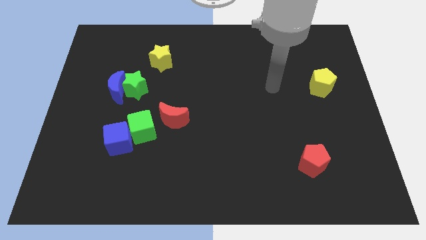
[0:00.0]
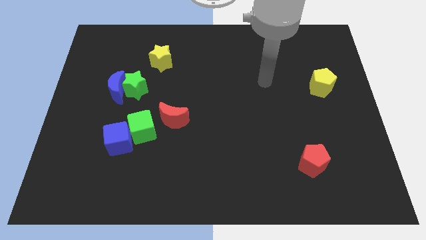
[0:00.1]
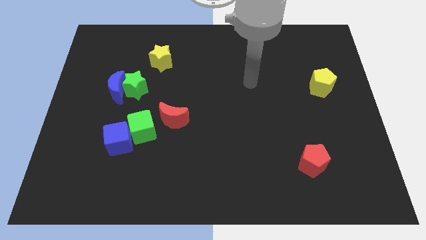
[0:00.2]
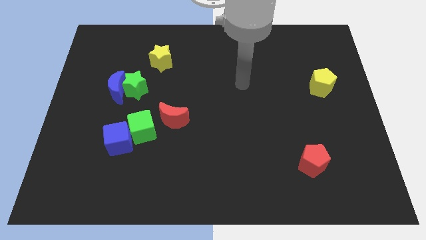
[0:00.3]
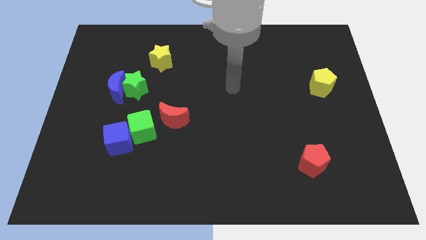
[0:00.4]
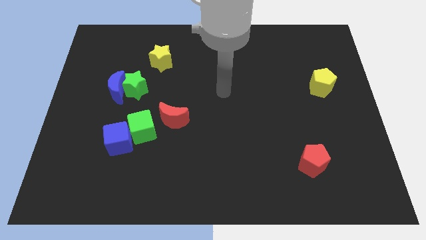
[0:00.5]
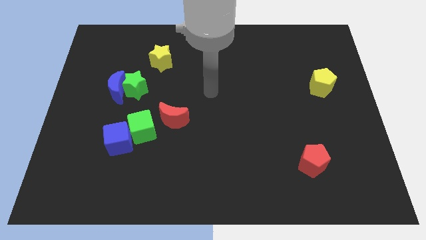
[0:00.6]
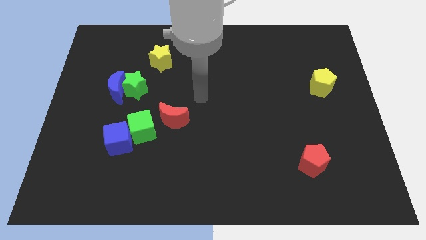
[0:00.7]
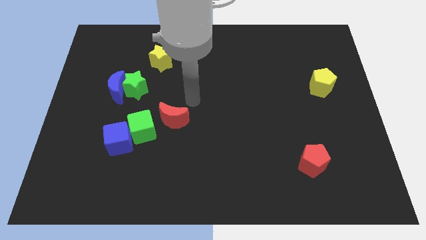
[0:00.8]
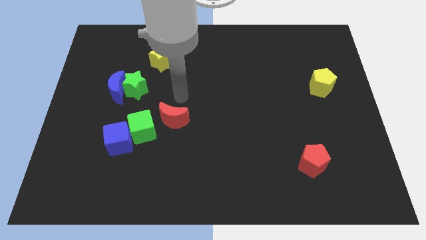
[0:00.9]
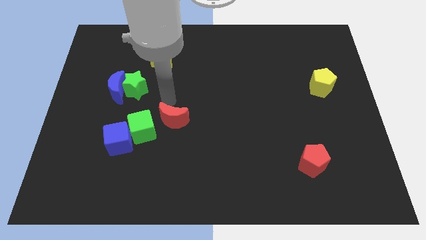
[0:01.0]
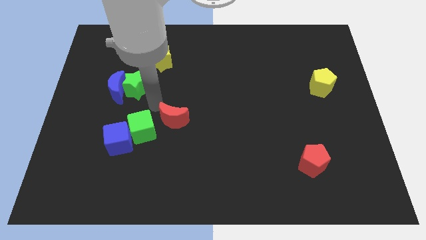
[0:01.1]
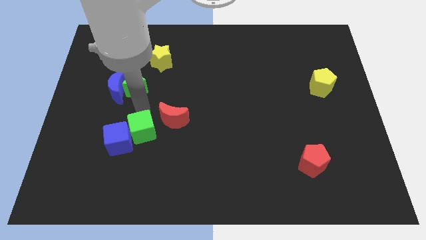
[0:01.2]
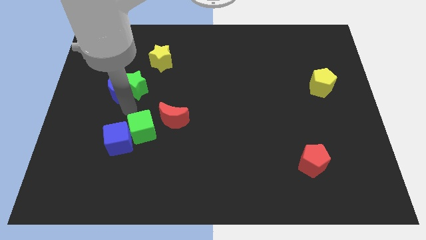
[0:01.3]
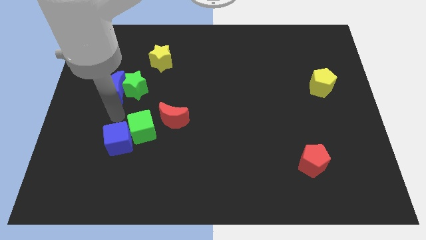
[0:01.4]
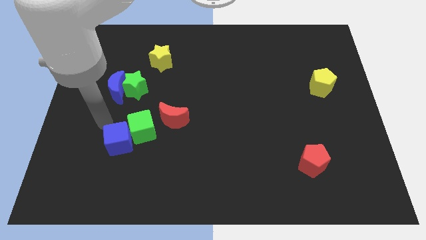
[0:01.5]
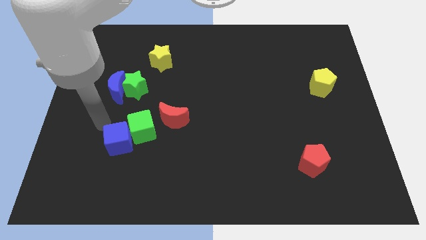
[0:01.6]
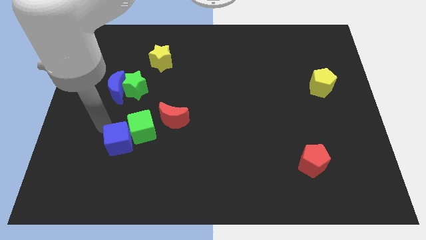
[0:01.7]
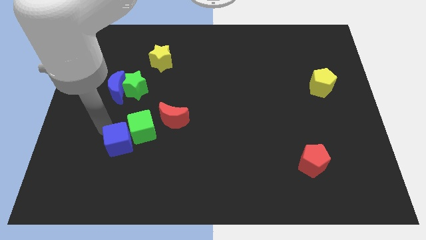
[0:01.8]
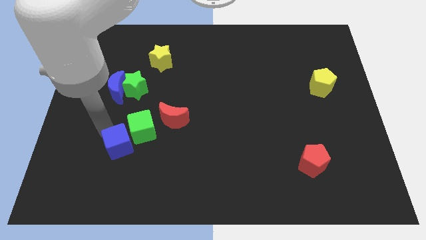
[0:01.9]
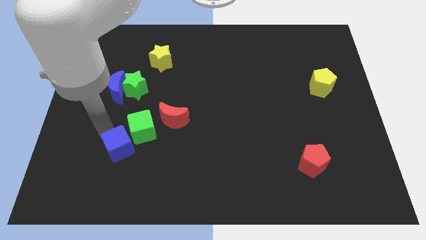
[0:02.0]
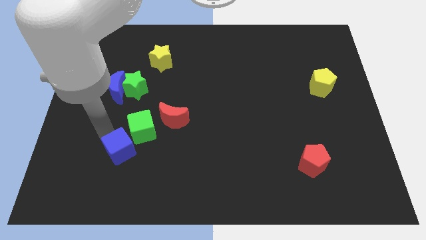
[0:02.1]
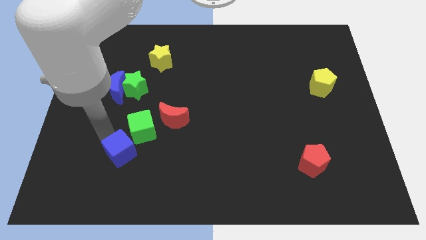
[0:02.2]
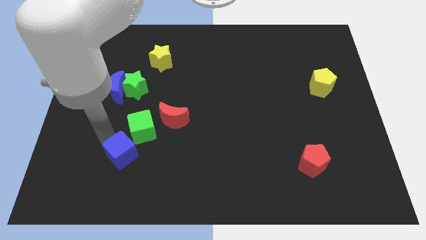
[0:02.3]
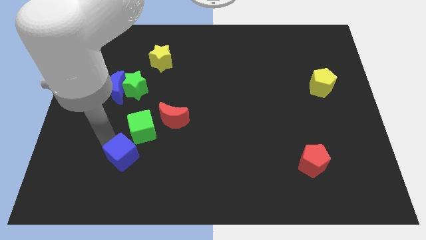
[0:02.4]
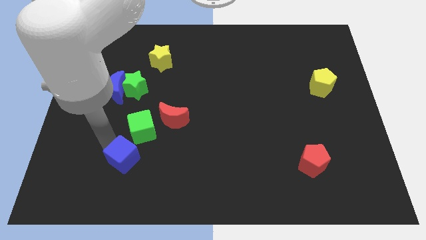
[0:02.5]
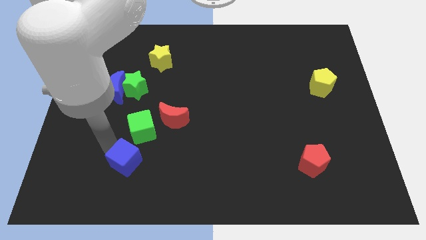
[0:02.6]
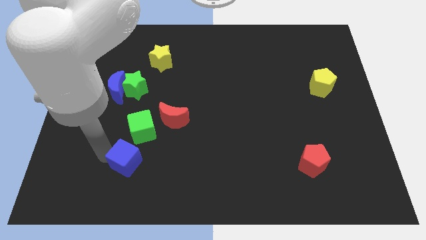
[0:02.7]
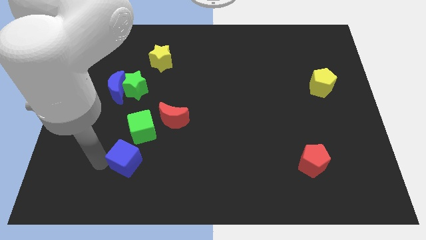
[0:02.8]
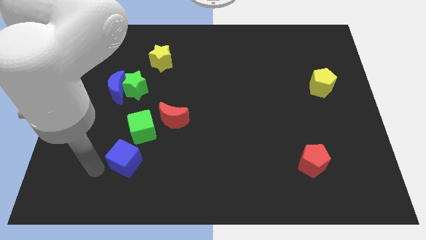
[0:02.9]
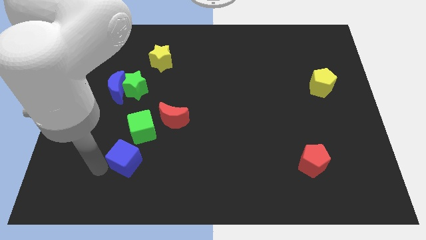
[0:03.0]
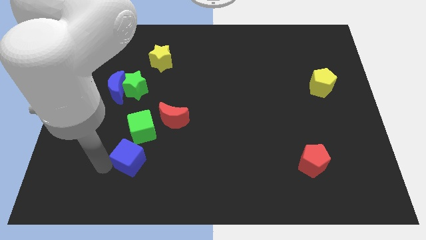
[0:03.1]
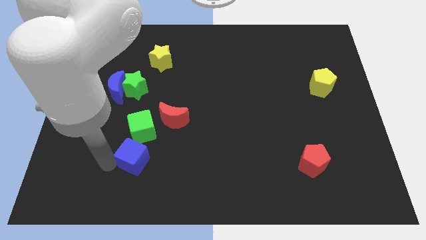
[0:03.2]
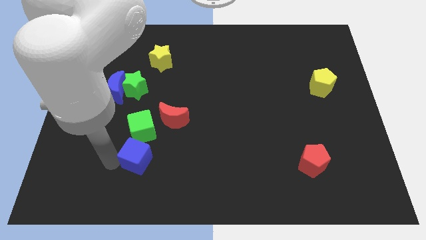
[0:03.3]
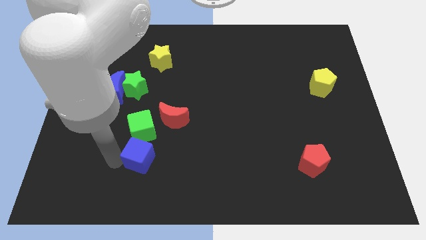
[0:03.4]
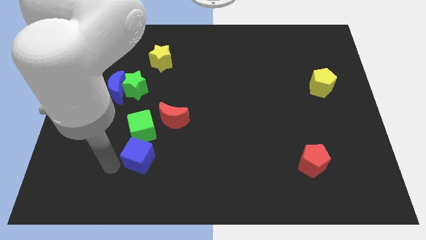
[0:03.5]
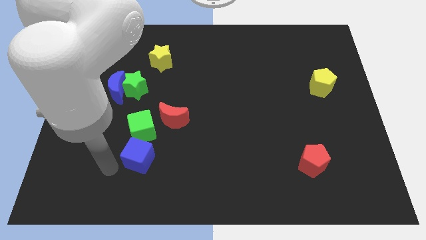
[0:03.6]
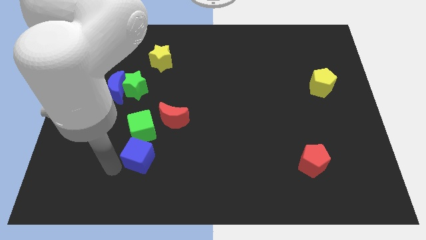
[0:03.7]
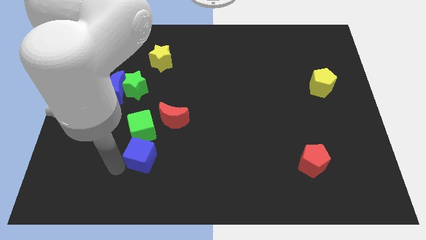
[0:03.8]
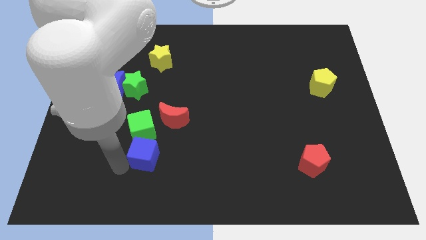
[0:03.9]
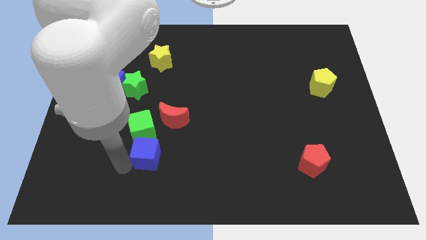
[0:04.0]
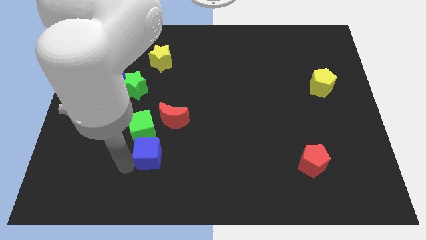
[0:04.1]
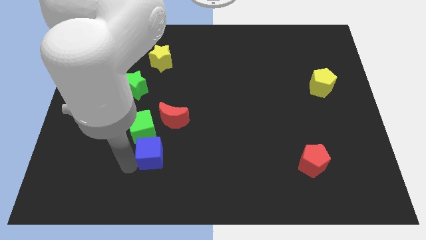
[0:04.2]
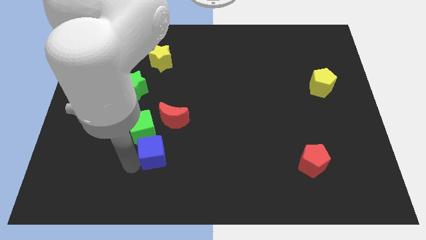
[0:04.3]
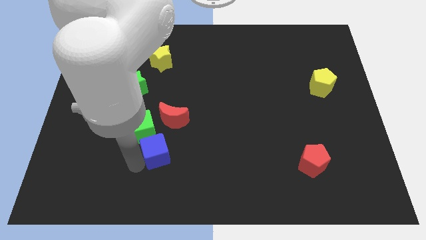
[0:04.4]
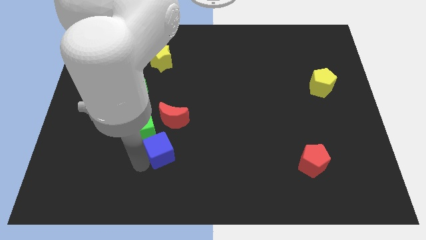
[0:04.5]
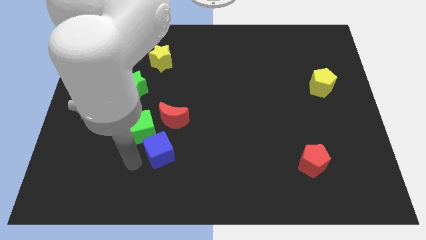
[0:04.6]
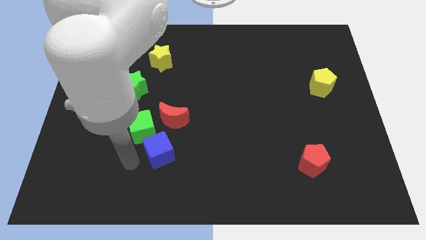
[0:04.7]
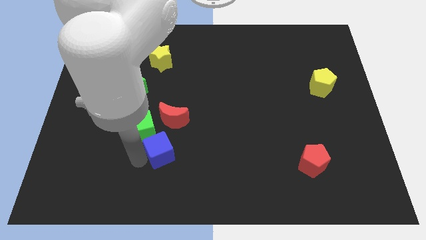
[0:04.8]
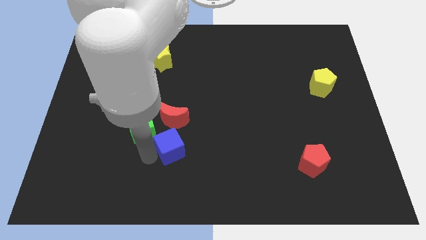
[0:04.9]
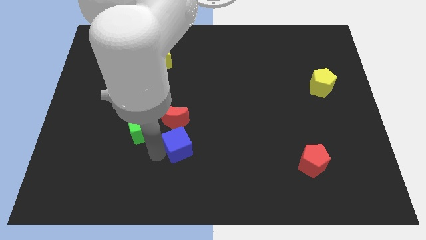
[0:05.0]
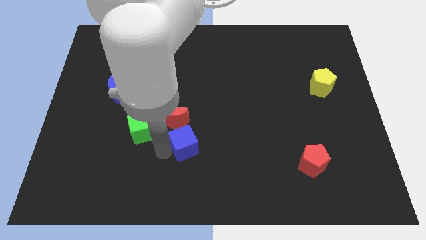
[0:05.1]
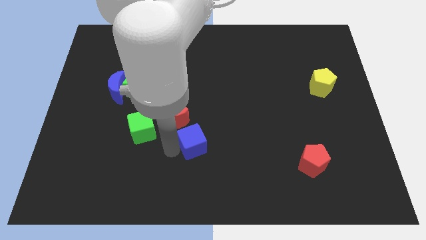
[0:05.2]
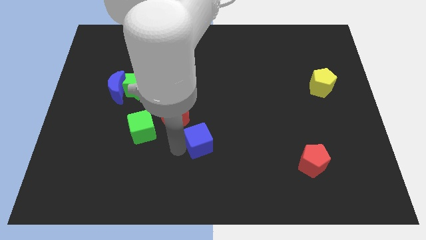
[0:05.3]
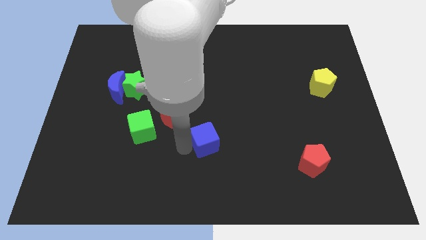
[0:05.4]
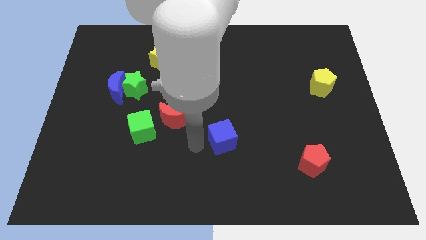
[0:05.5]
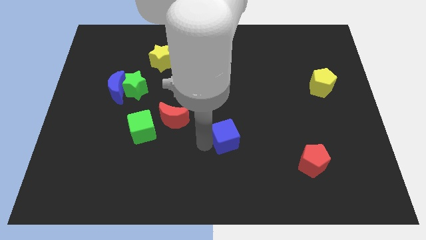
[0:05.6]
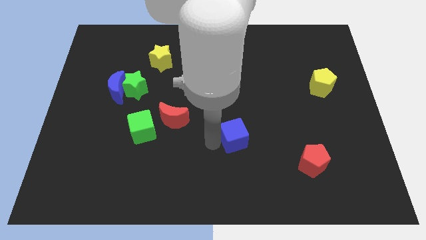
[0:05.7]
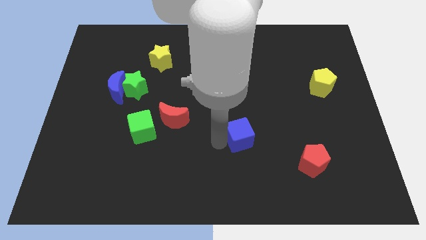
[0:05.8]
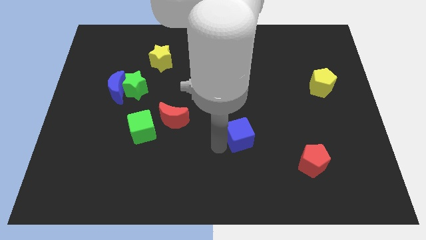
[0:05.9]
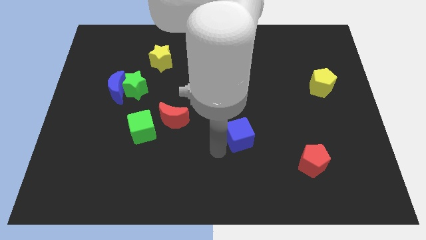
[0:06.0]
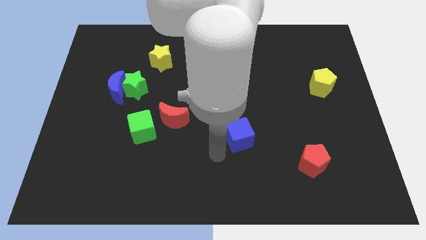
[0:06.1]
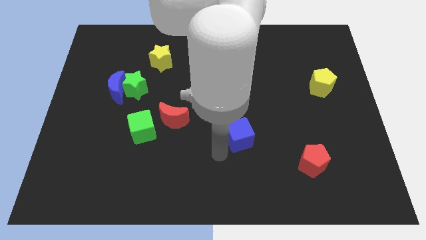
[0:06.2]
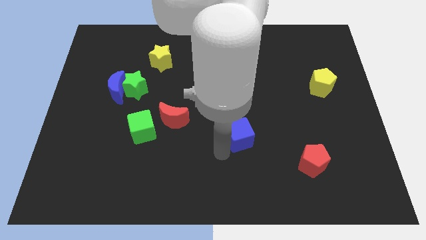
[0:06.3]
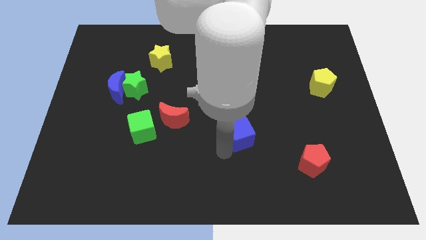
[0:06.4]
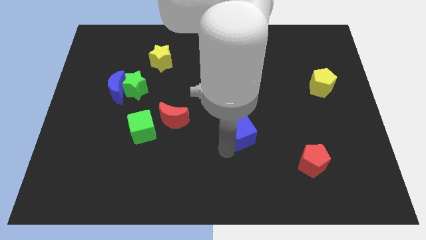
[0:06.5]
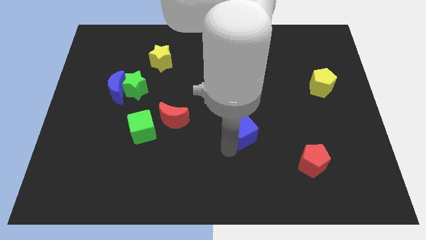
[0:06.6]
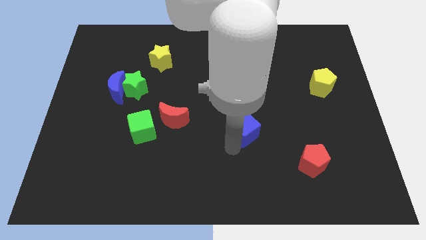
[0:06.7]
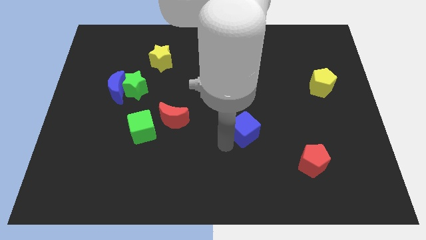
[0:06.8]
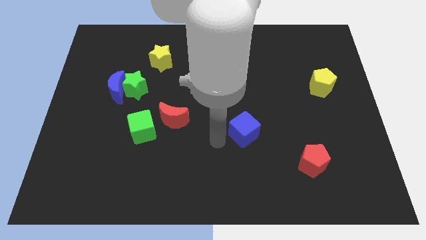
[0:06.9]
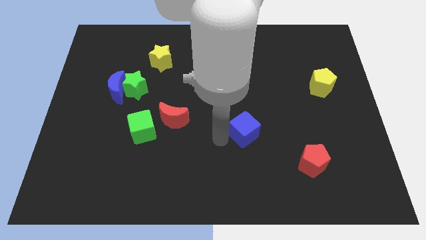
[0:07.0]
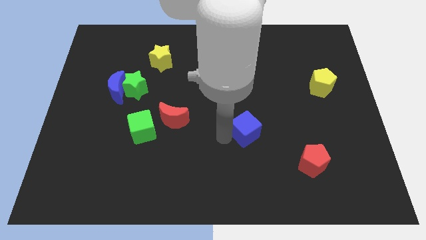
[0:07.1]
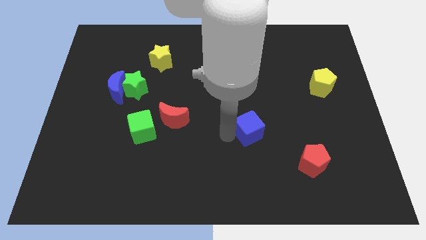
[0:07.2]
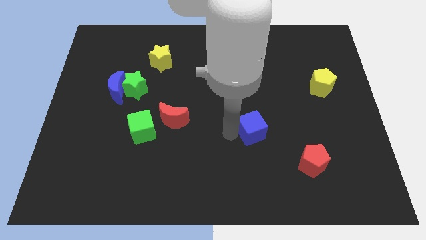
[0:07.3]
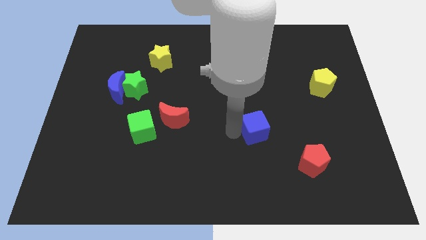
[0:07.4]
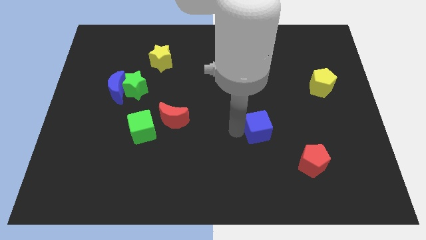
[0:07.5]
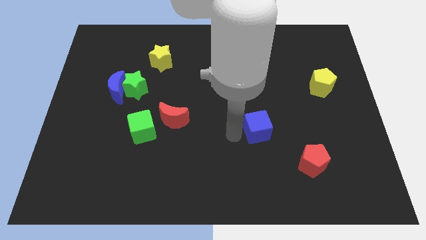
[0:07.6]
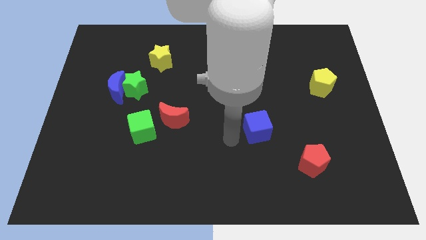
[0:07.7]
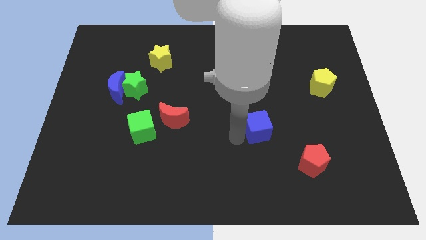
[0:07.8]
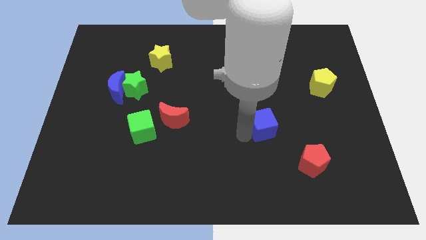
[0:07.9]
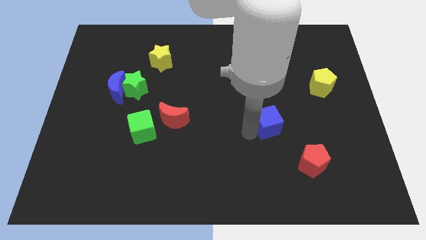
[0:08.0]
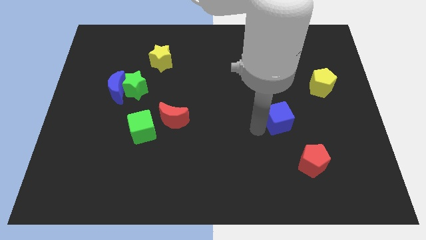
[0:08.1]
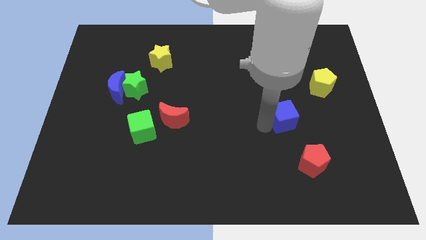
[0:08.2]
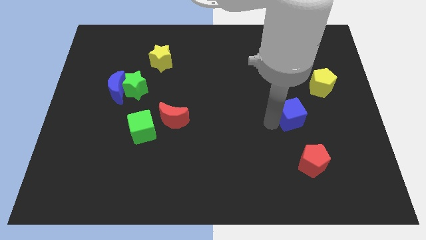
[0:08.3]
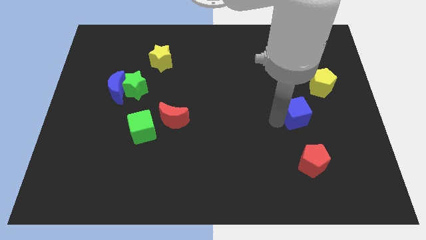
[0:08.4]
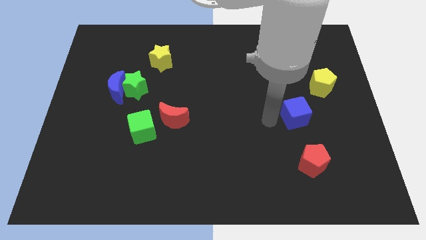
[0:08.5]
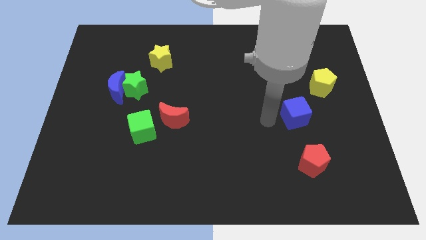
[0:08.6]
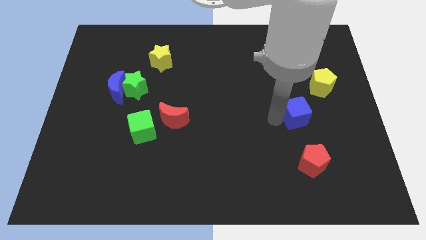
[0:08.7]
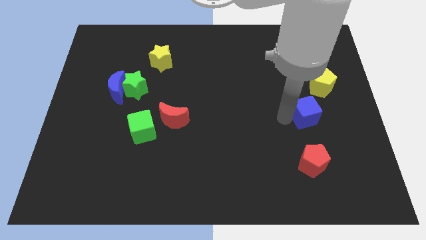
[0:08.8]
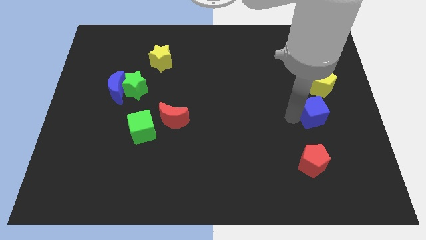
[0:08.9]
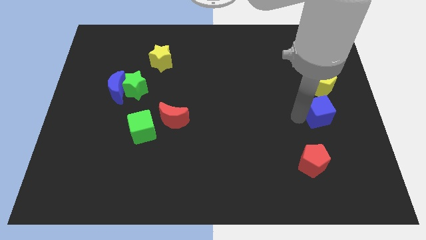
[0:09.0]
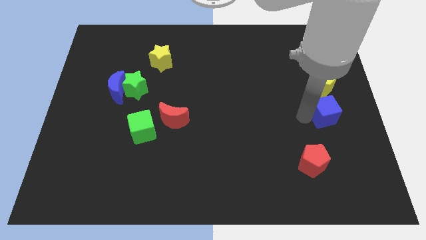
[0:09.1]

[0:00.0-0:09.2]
move the blue cube to the right side of the board
